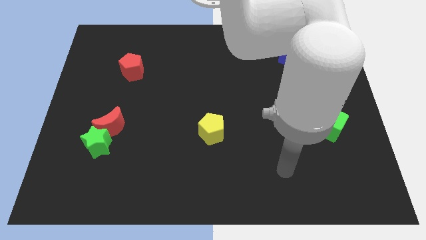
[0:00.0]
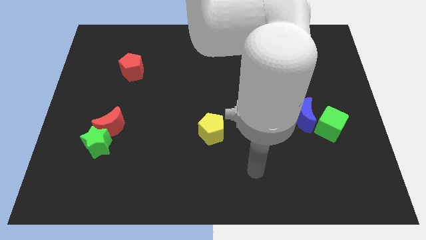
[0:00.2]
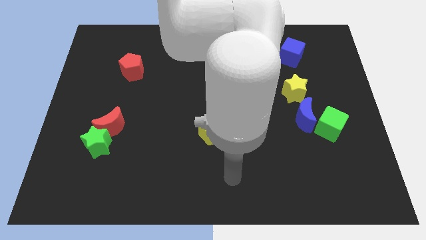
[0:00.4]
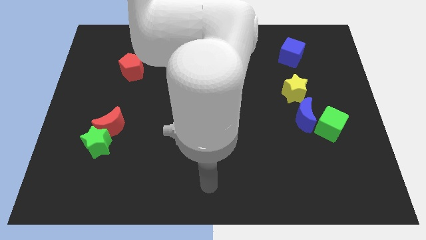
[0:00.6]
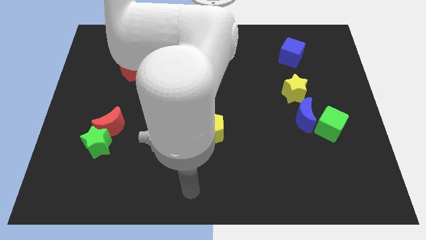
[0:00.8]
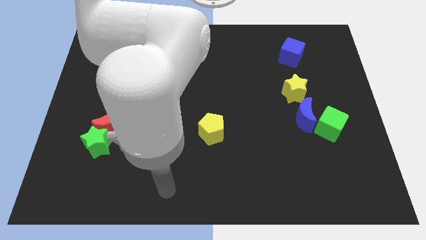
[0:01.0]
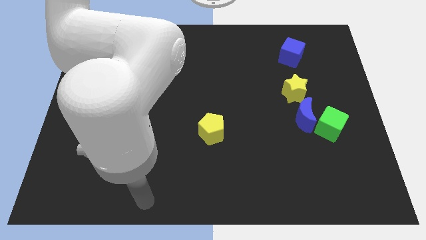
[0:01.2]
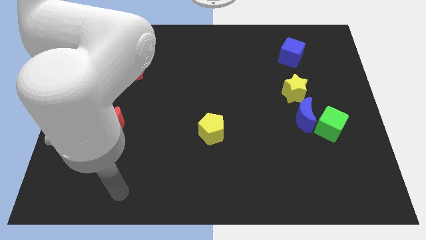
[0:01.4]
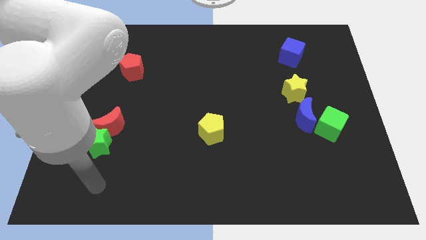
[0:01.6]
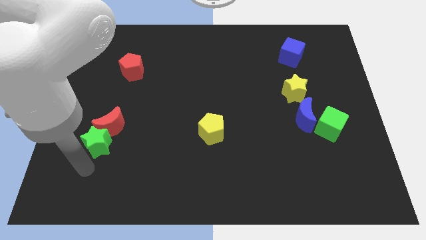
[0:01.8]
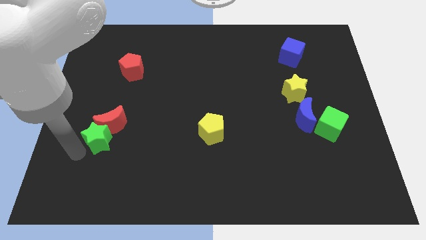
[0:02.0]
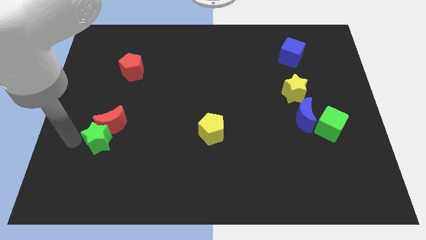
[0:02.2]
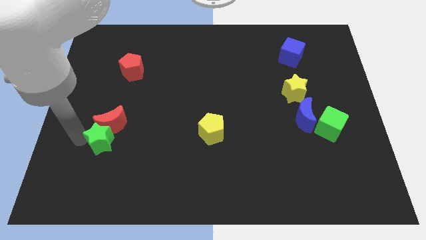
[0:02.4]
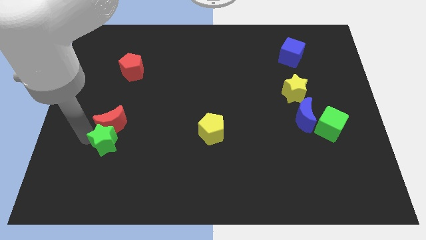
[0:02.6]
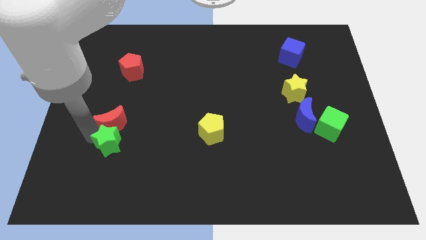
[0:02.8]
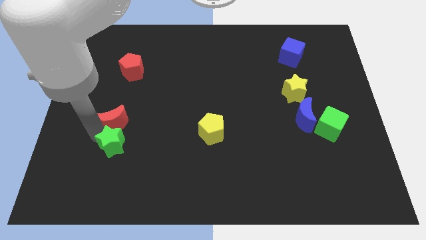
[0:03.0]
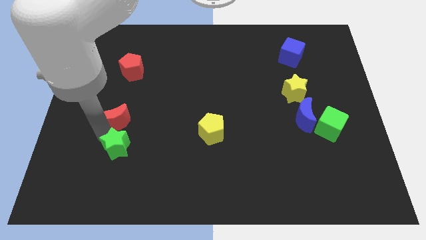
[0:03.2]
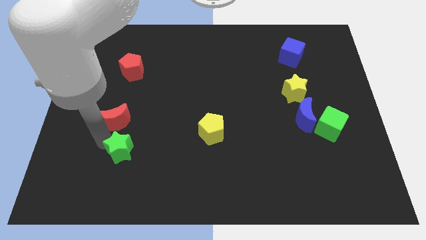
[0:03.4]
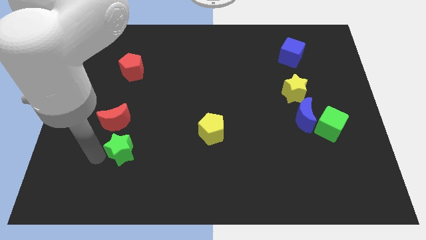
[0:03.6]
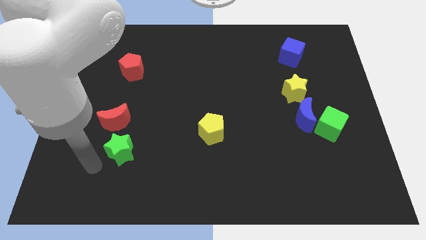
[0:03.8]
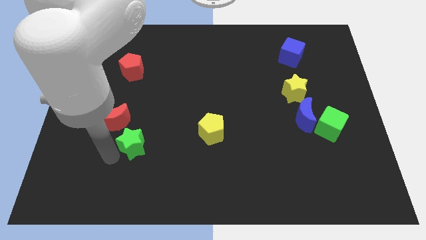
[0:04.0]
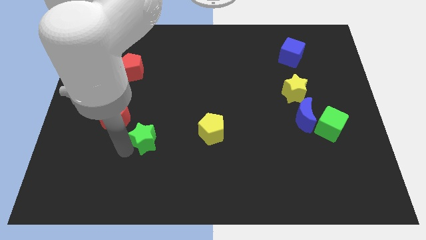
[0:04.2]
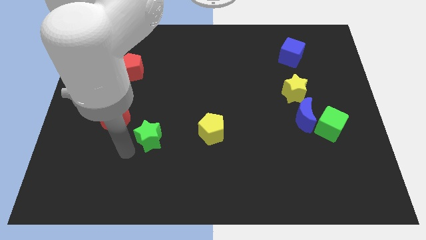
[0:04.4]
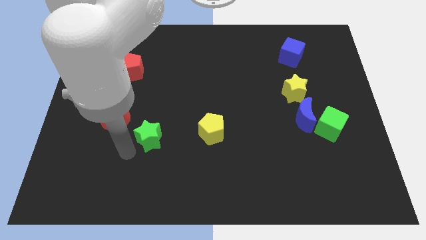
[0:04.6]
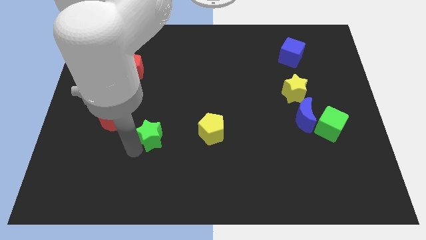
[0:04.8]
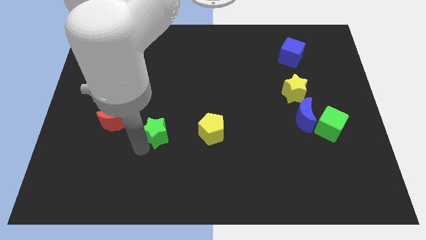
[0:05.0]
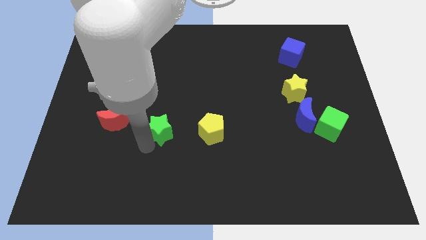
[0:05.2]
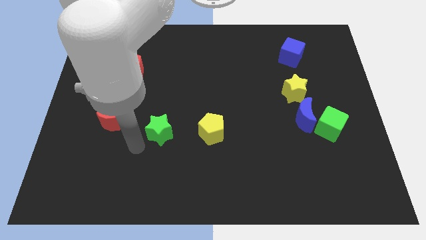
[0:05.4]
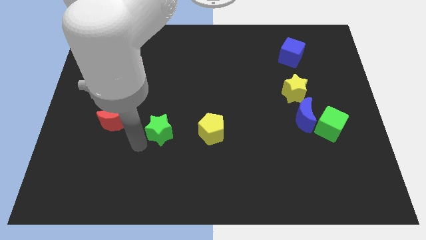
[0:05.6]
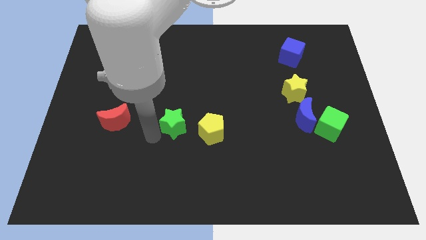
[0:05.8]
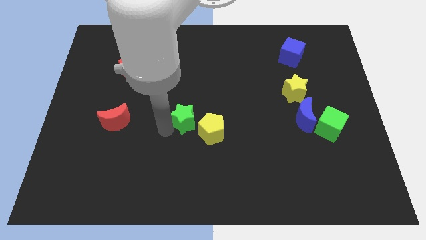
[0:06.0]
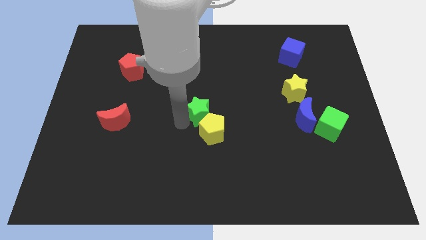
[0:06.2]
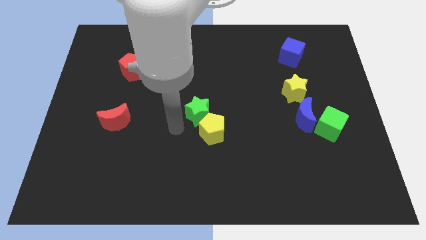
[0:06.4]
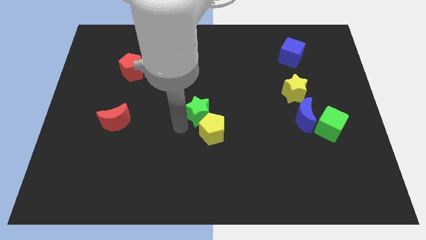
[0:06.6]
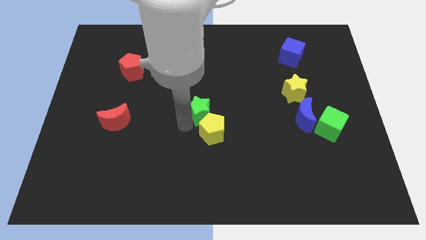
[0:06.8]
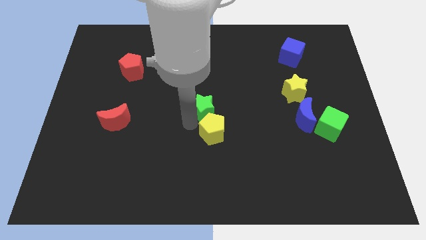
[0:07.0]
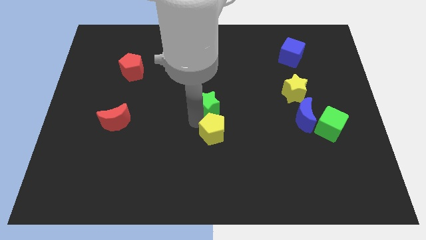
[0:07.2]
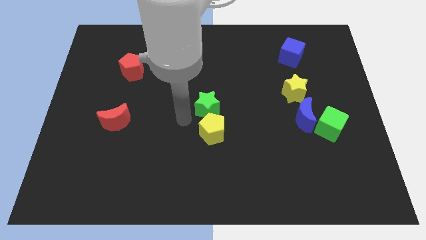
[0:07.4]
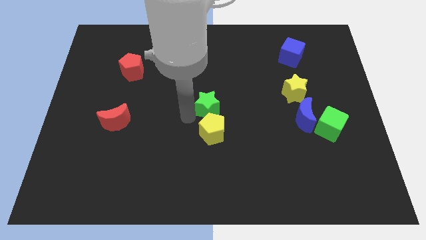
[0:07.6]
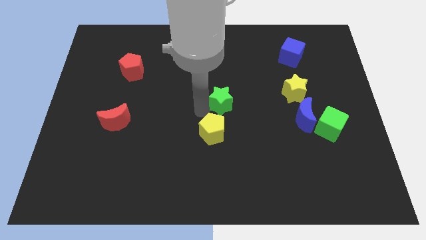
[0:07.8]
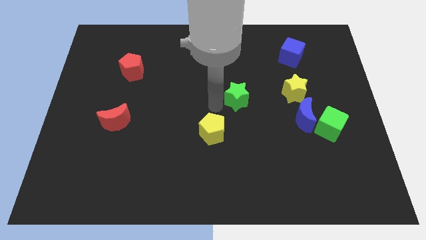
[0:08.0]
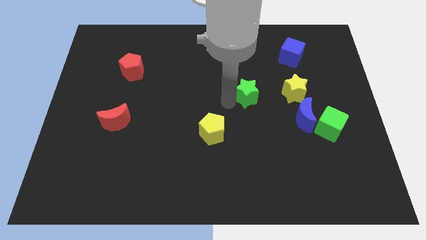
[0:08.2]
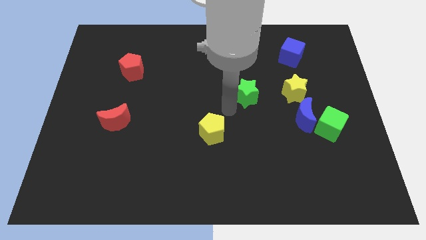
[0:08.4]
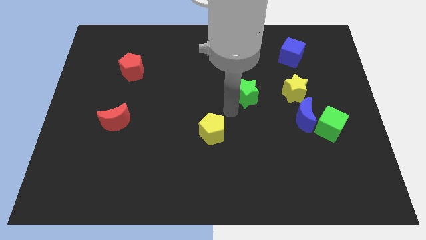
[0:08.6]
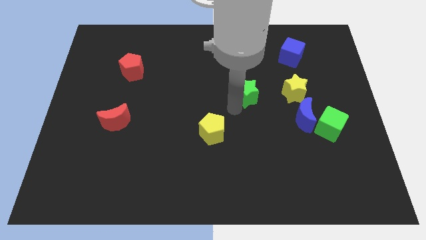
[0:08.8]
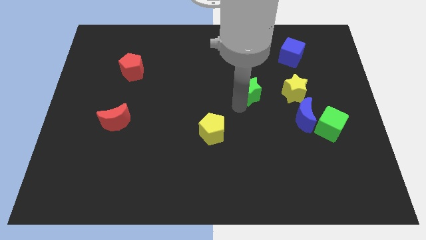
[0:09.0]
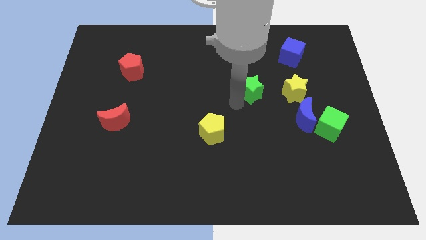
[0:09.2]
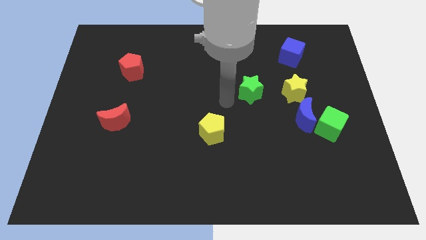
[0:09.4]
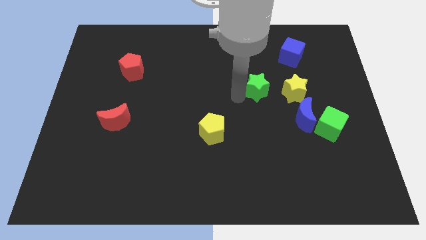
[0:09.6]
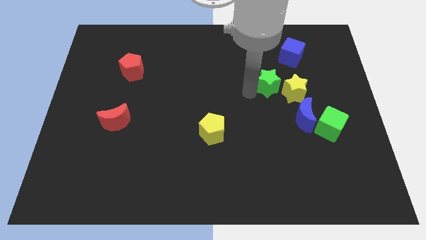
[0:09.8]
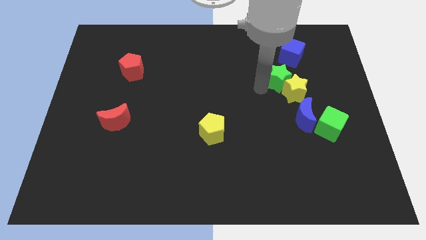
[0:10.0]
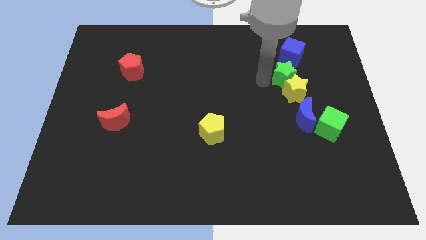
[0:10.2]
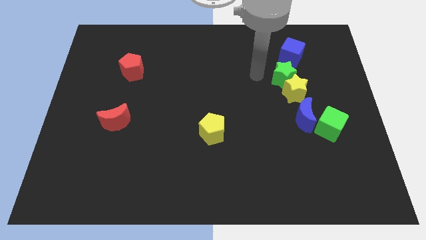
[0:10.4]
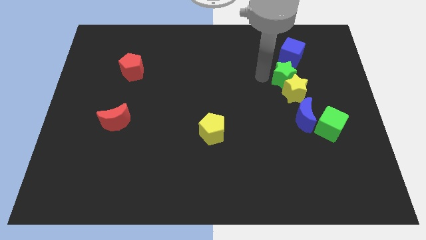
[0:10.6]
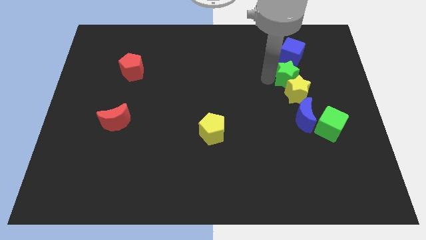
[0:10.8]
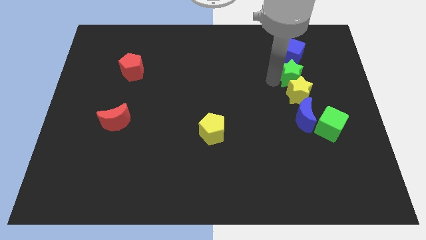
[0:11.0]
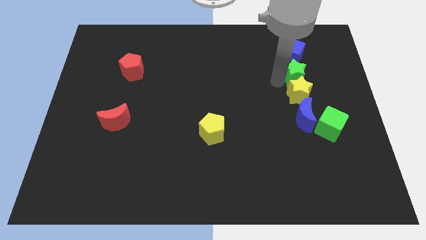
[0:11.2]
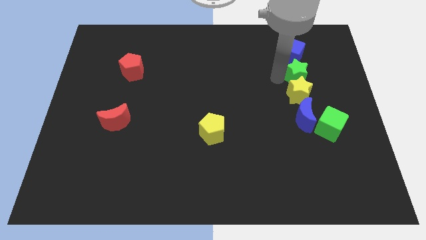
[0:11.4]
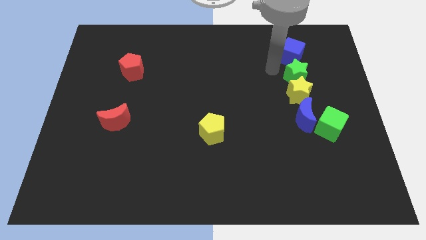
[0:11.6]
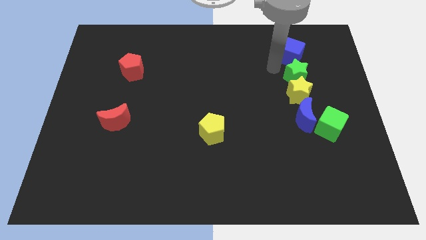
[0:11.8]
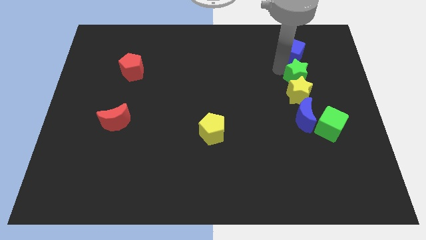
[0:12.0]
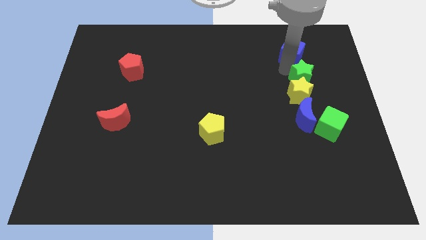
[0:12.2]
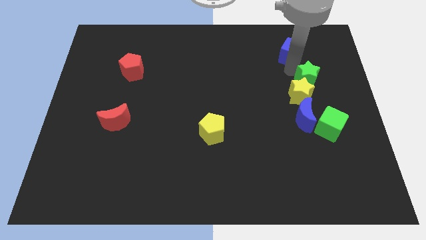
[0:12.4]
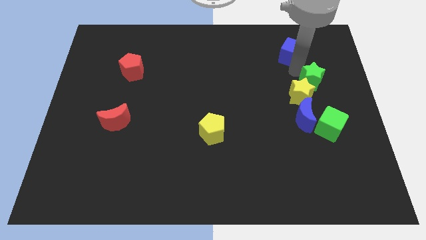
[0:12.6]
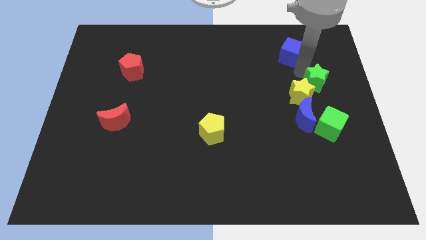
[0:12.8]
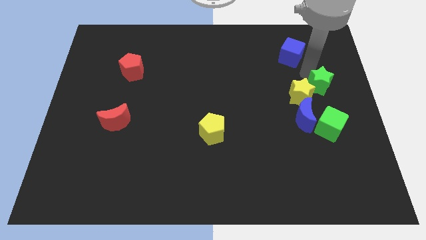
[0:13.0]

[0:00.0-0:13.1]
slide the green star to the right side

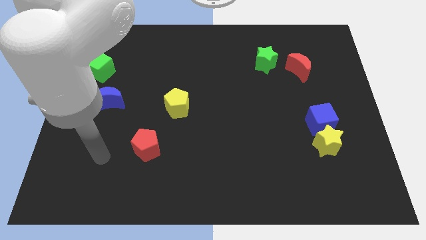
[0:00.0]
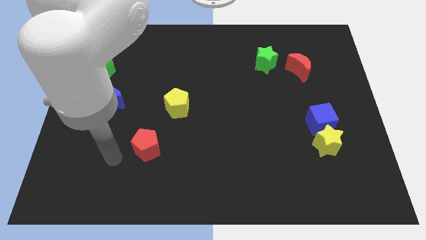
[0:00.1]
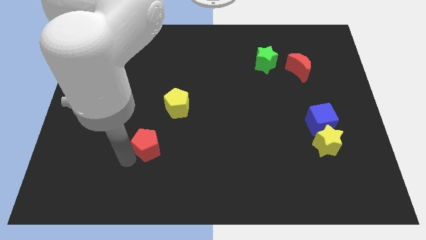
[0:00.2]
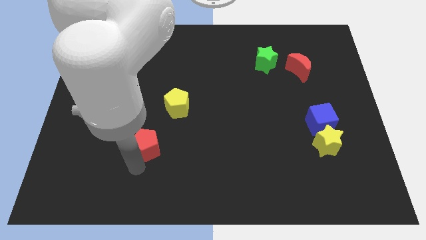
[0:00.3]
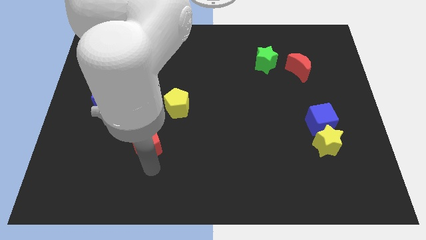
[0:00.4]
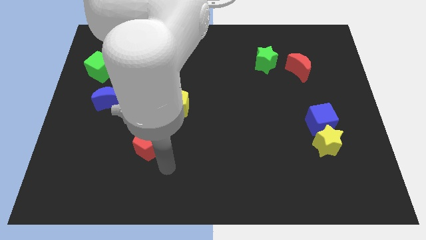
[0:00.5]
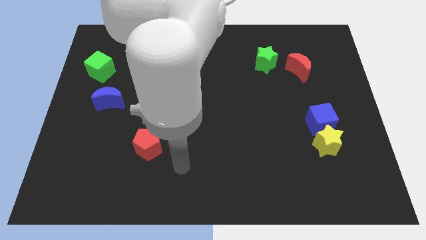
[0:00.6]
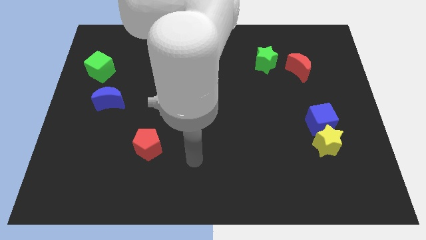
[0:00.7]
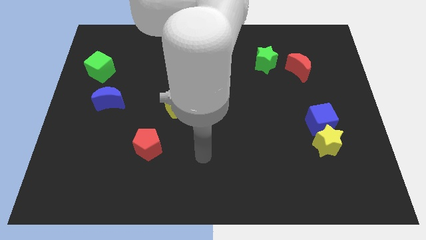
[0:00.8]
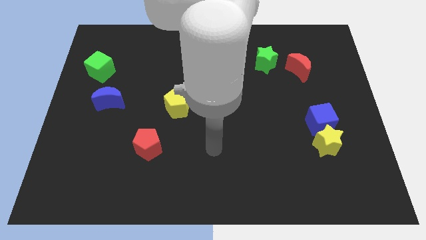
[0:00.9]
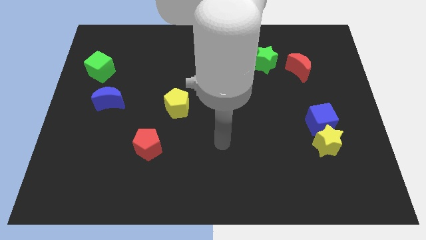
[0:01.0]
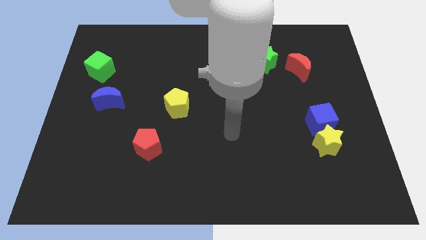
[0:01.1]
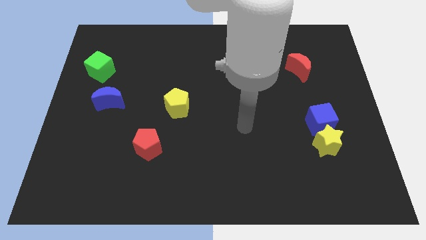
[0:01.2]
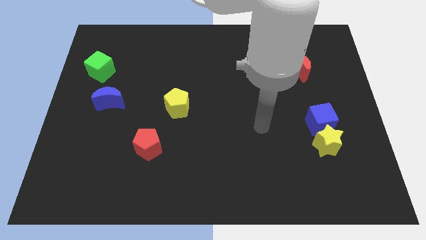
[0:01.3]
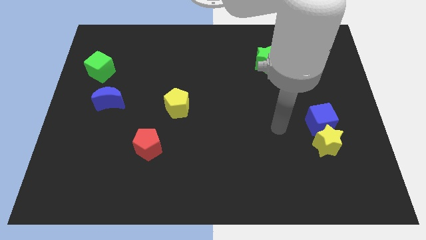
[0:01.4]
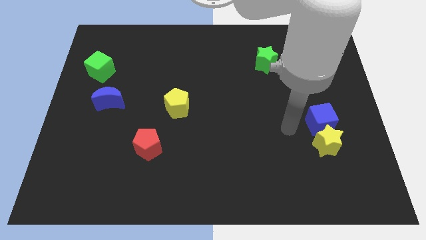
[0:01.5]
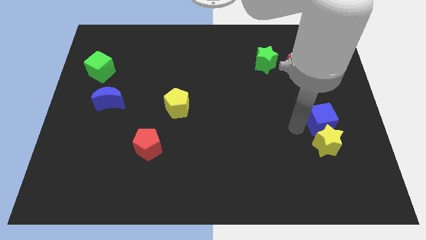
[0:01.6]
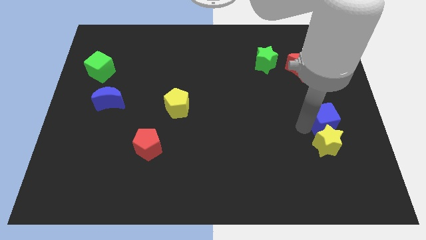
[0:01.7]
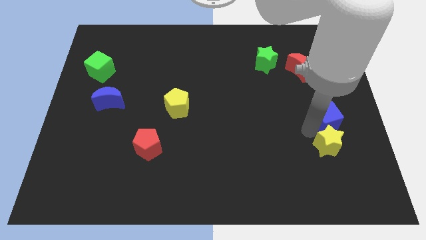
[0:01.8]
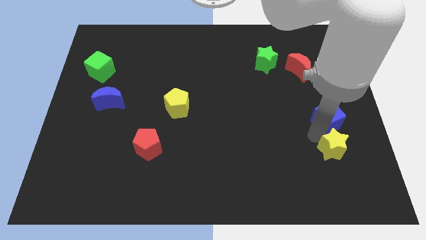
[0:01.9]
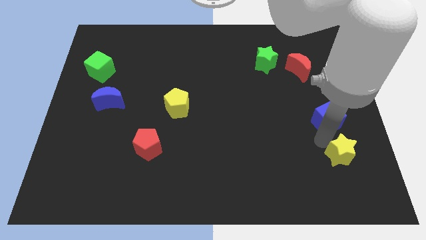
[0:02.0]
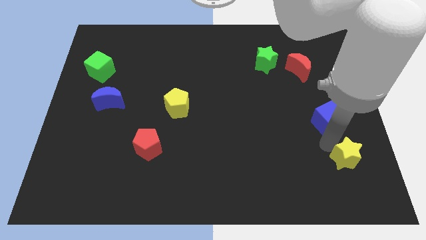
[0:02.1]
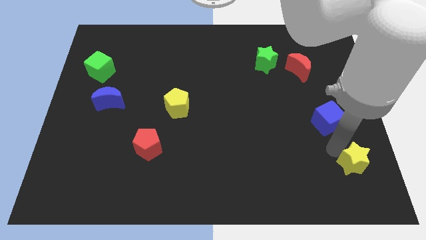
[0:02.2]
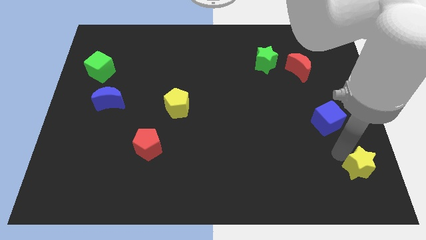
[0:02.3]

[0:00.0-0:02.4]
put the yellow star to the lower right corner
